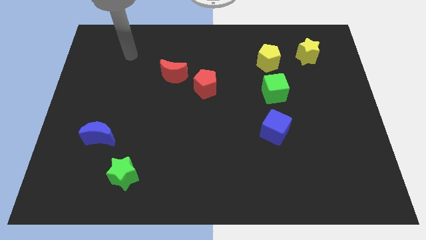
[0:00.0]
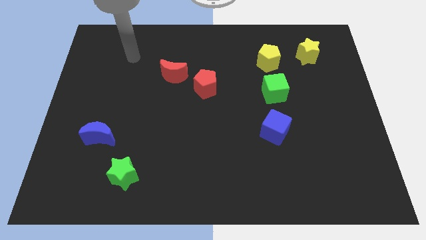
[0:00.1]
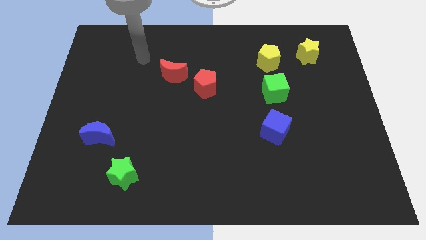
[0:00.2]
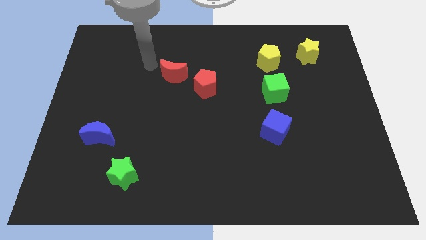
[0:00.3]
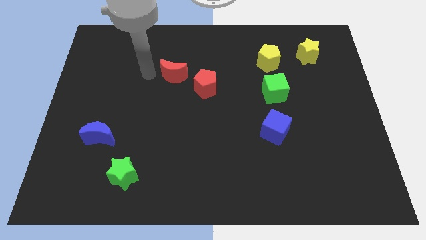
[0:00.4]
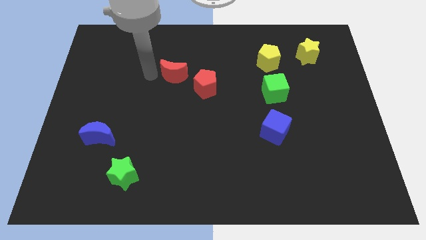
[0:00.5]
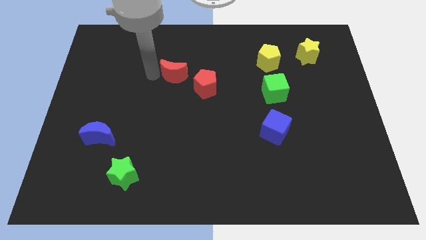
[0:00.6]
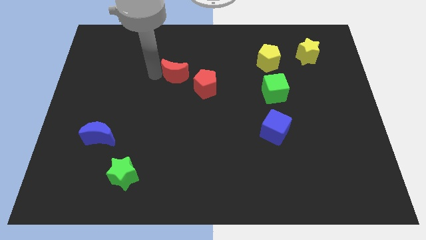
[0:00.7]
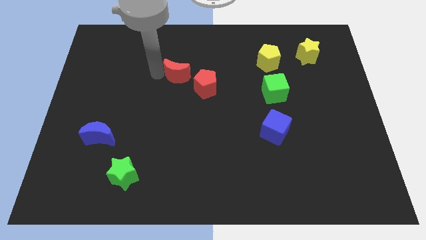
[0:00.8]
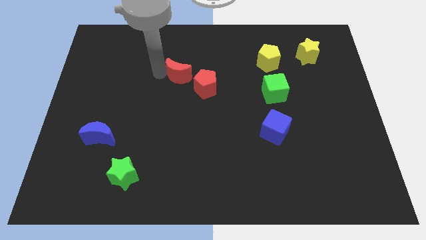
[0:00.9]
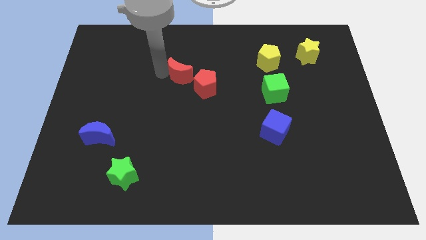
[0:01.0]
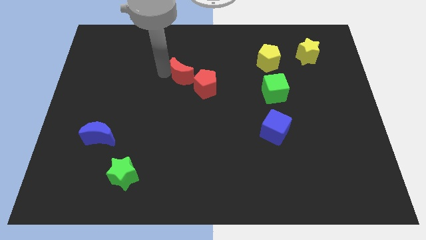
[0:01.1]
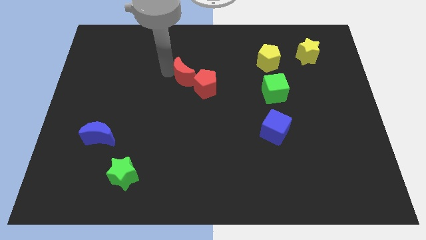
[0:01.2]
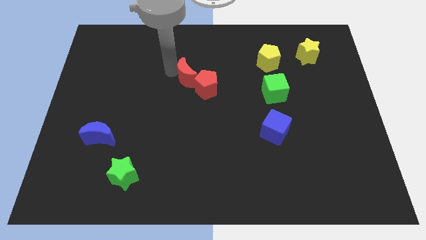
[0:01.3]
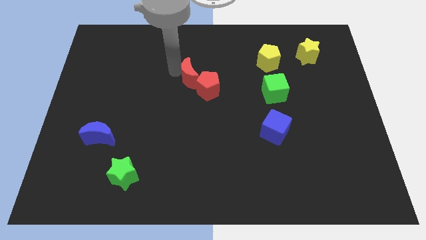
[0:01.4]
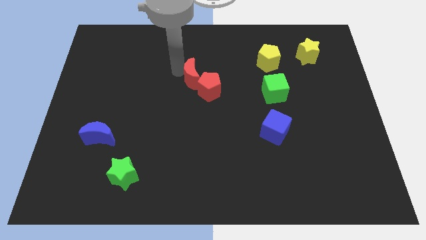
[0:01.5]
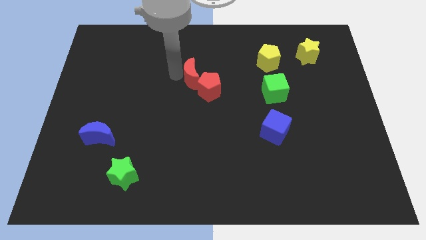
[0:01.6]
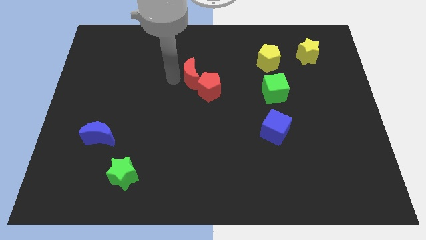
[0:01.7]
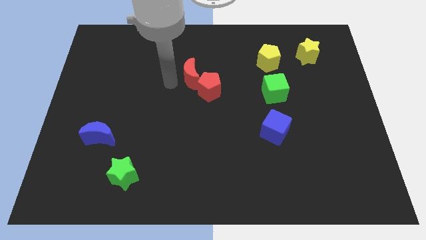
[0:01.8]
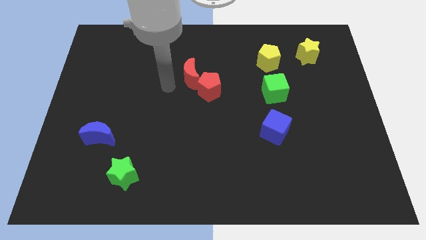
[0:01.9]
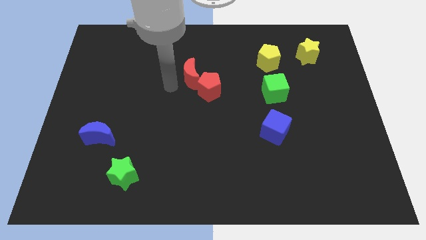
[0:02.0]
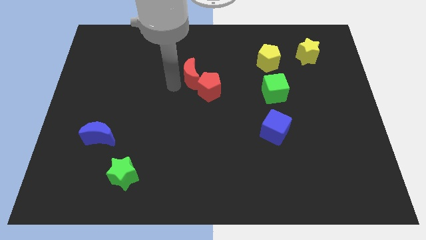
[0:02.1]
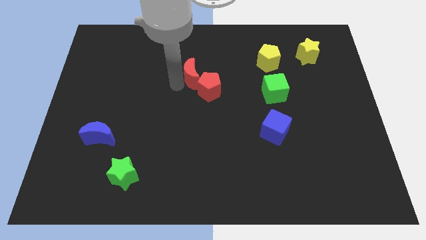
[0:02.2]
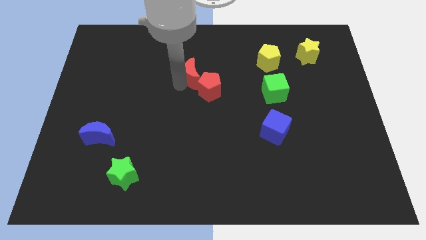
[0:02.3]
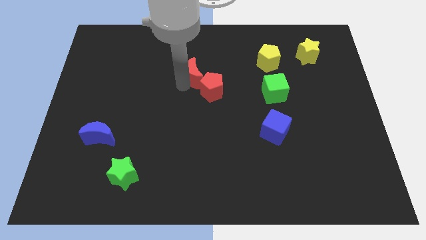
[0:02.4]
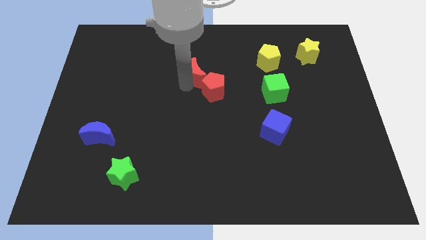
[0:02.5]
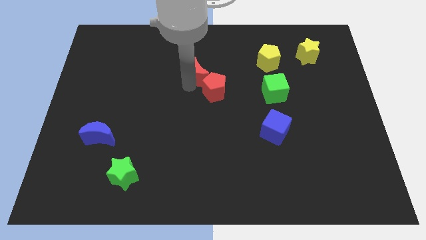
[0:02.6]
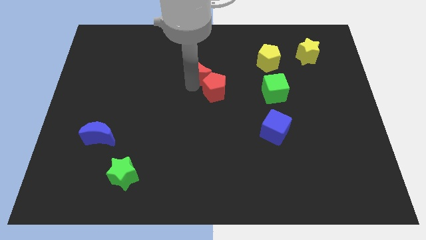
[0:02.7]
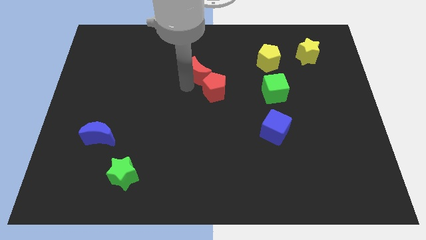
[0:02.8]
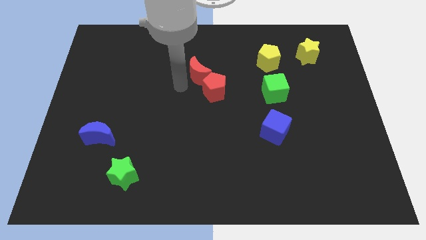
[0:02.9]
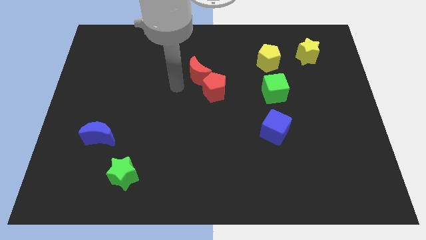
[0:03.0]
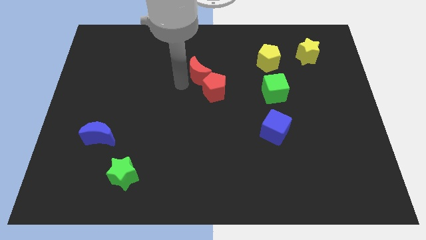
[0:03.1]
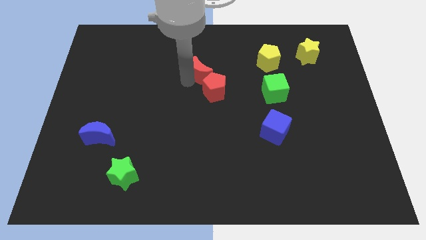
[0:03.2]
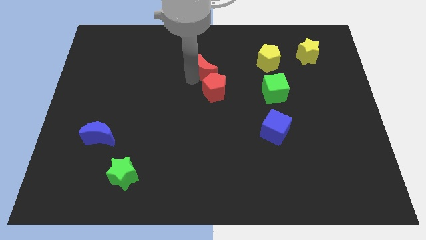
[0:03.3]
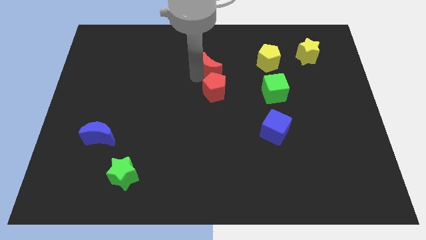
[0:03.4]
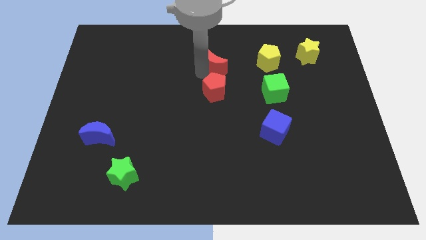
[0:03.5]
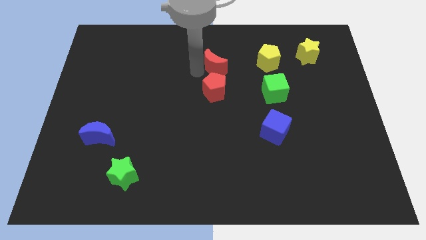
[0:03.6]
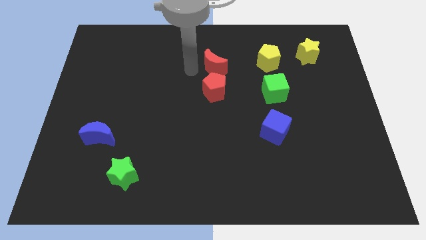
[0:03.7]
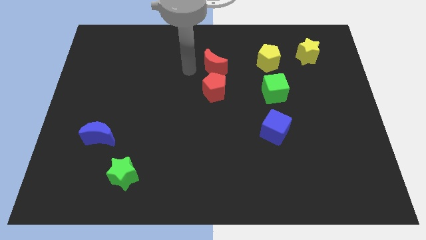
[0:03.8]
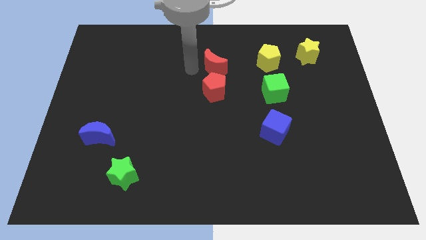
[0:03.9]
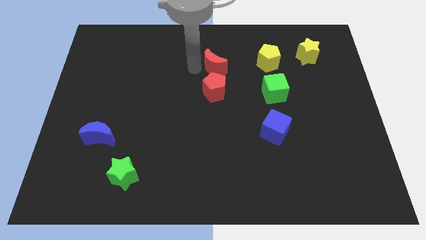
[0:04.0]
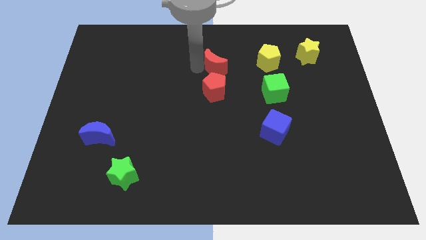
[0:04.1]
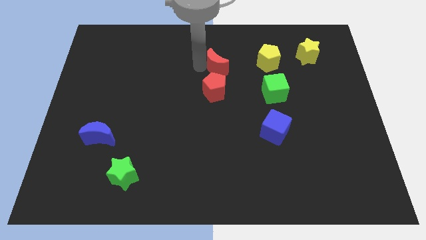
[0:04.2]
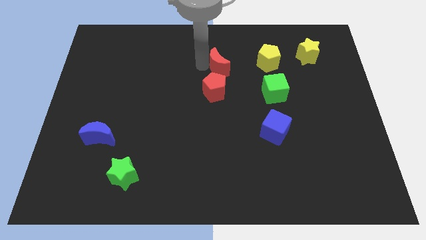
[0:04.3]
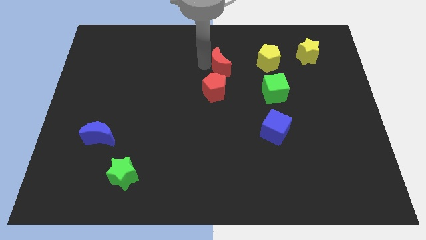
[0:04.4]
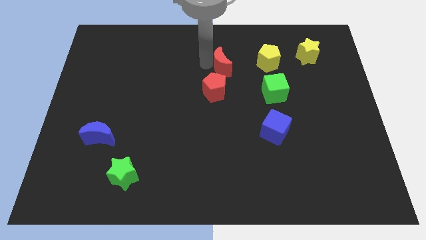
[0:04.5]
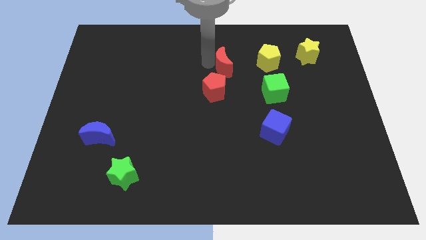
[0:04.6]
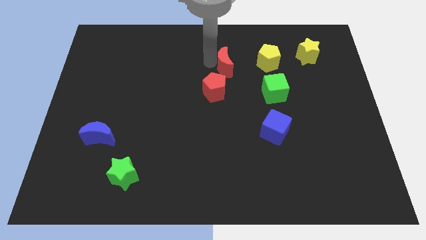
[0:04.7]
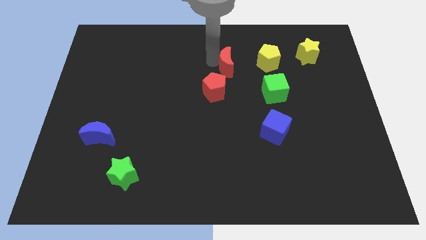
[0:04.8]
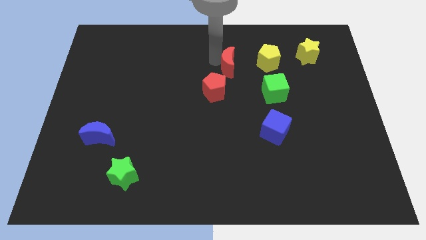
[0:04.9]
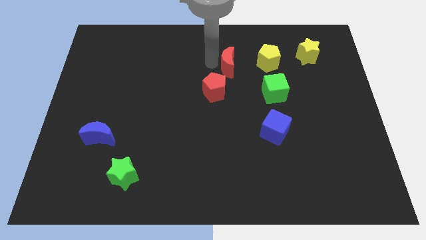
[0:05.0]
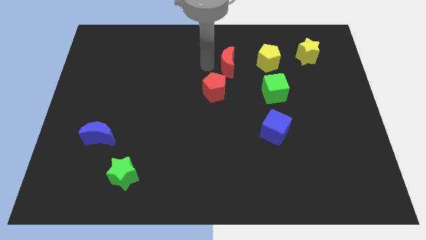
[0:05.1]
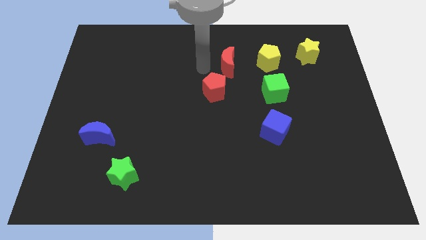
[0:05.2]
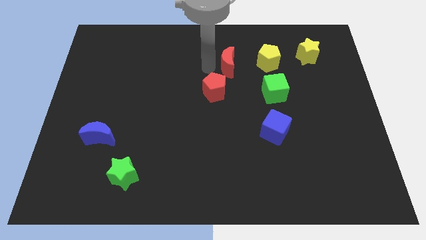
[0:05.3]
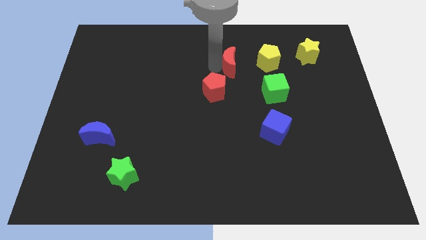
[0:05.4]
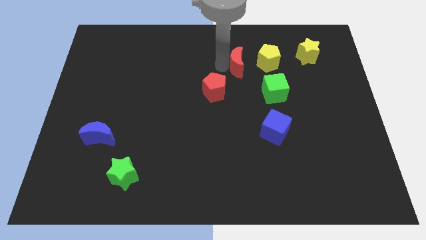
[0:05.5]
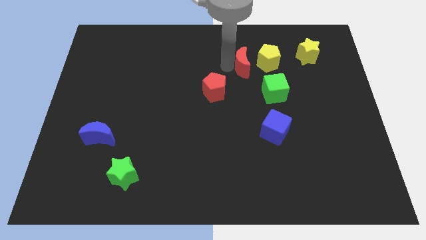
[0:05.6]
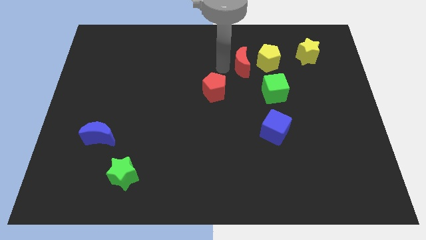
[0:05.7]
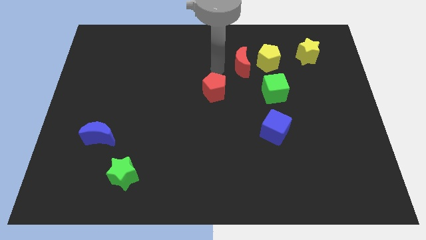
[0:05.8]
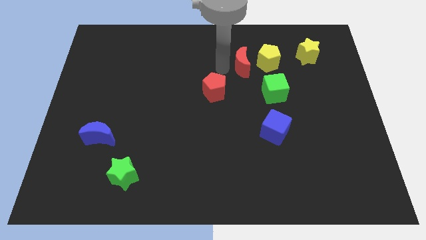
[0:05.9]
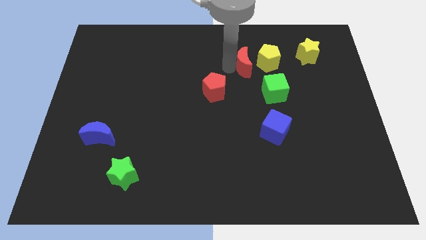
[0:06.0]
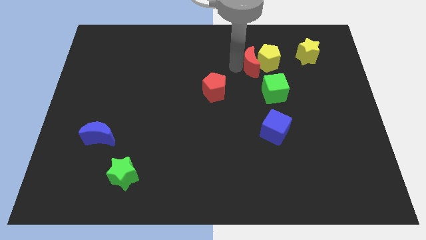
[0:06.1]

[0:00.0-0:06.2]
move the red moon next to the yellow pentagon
